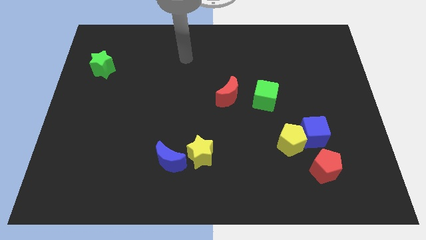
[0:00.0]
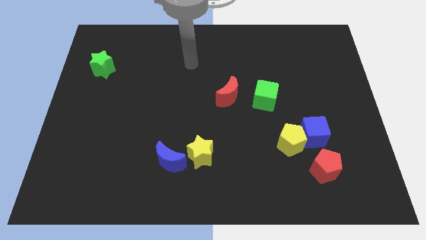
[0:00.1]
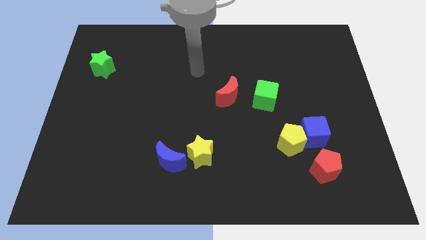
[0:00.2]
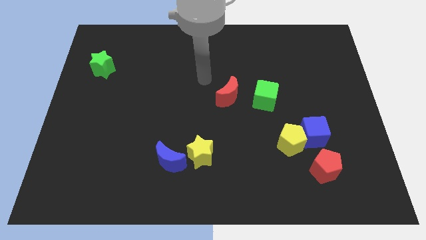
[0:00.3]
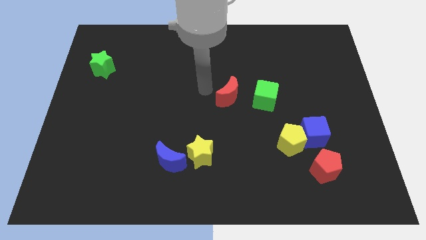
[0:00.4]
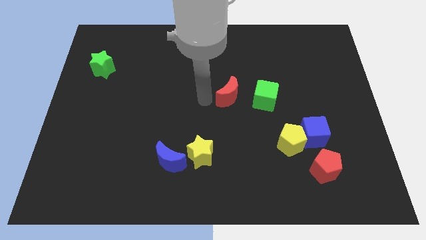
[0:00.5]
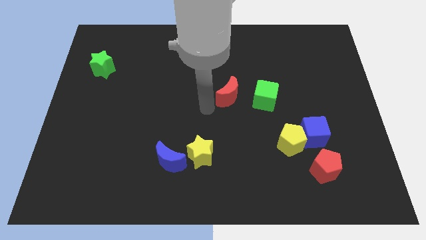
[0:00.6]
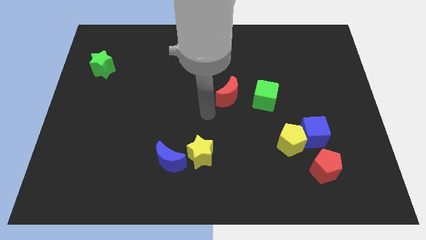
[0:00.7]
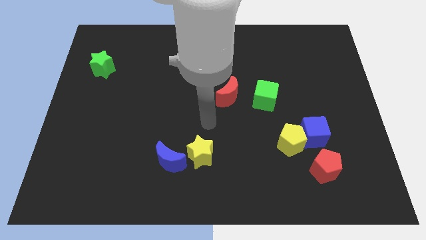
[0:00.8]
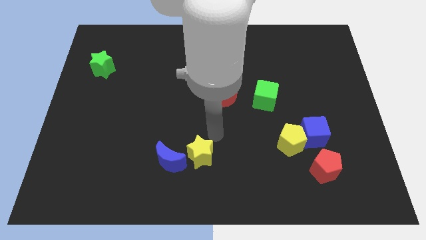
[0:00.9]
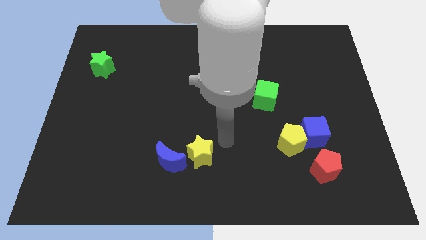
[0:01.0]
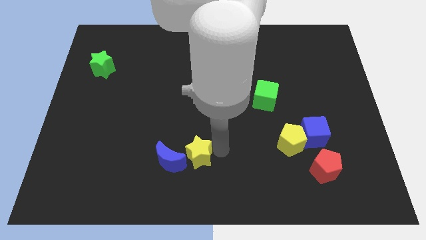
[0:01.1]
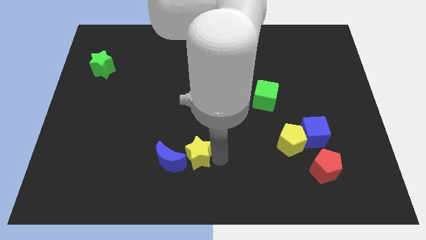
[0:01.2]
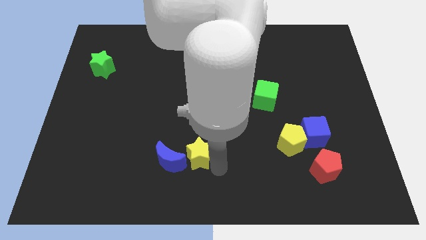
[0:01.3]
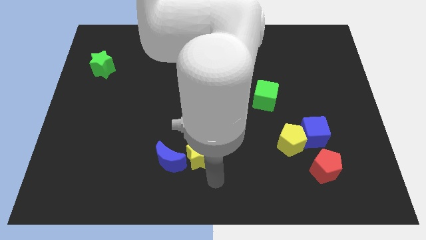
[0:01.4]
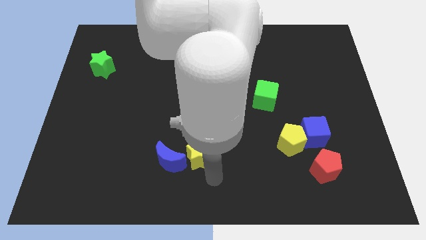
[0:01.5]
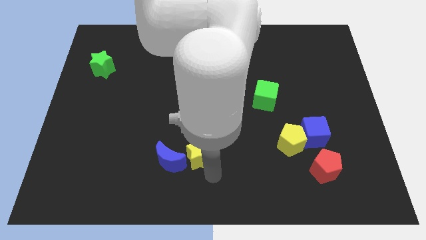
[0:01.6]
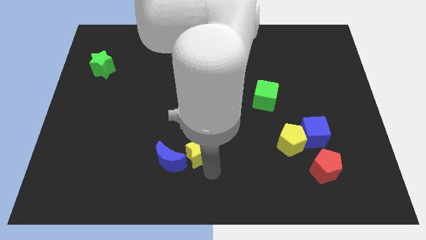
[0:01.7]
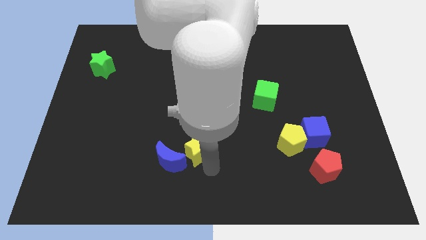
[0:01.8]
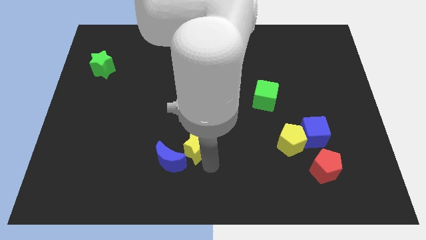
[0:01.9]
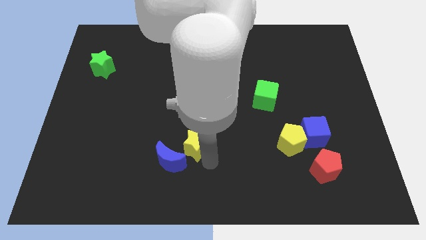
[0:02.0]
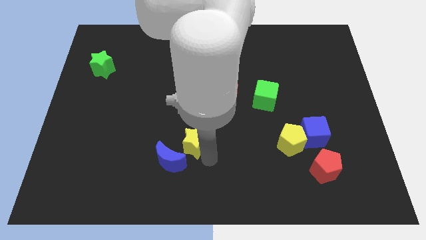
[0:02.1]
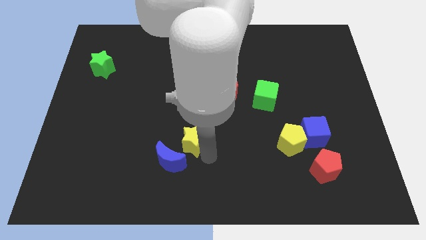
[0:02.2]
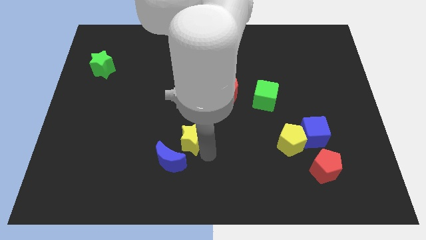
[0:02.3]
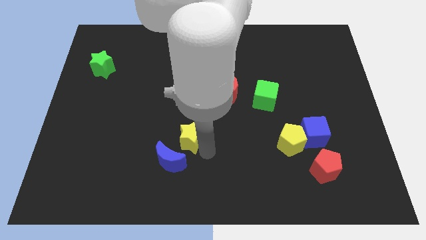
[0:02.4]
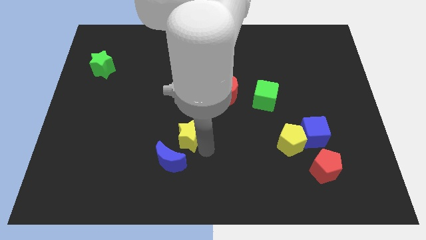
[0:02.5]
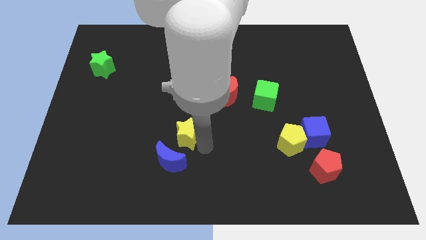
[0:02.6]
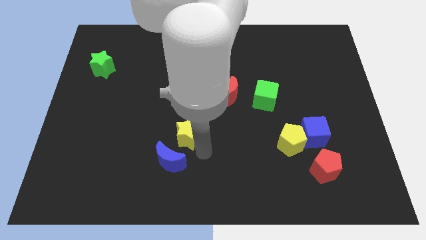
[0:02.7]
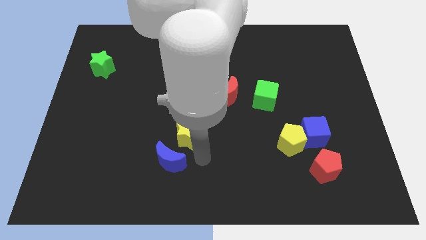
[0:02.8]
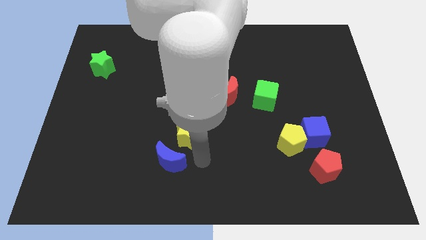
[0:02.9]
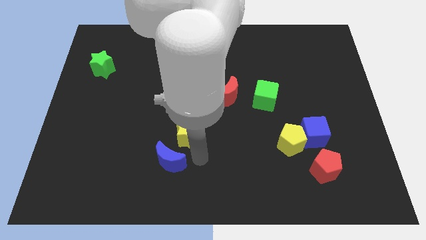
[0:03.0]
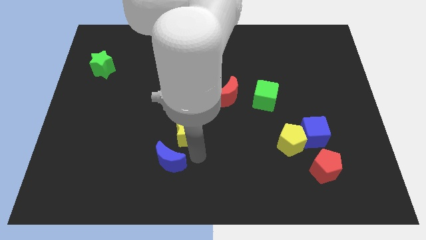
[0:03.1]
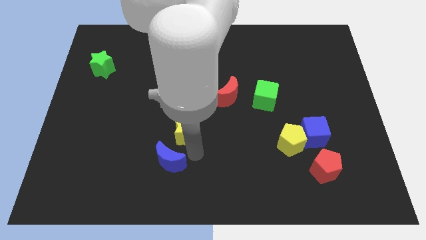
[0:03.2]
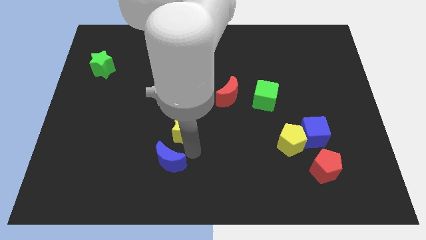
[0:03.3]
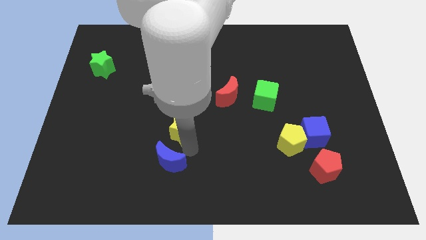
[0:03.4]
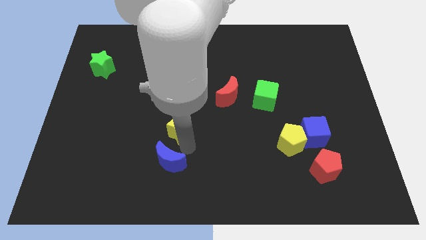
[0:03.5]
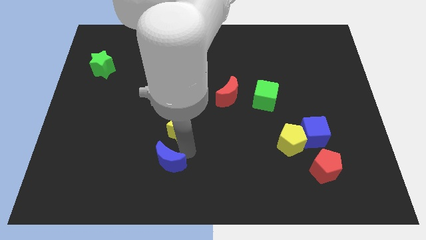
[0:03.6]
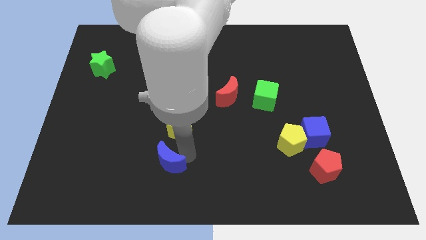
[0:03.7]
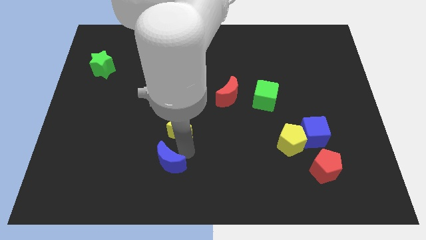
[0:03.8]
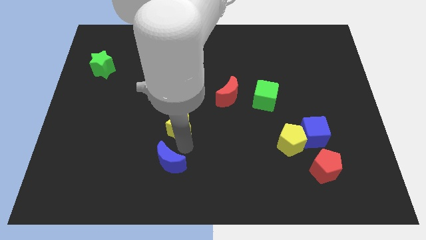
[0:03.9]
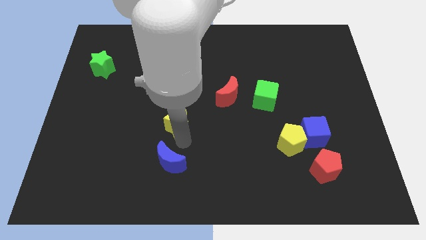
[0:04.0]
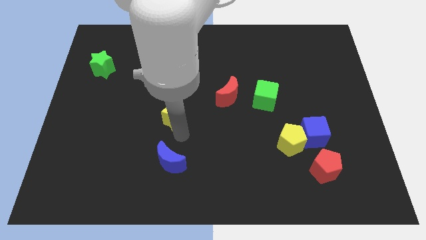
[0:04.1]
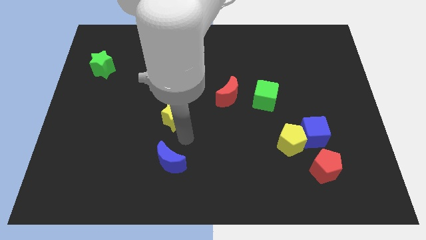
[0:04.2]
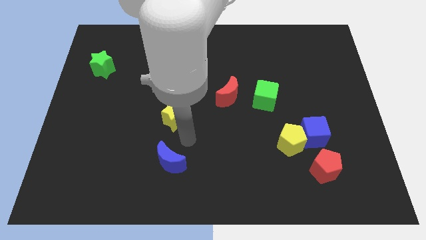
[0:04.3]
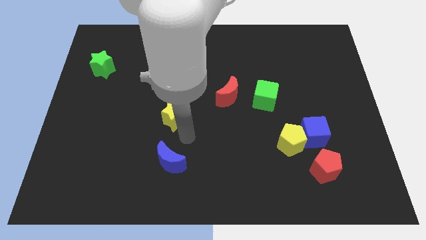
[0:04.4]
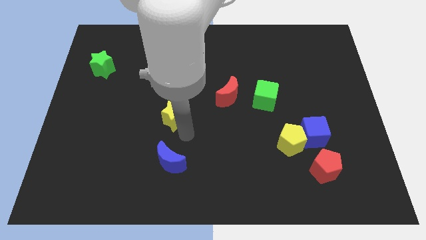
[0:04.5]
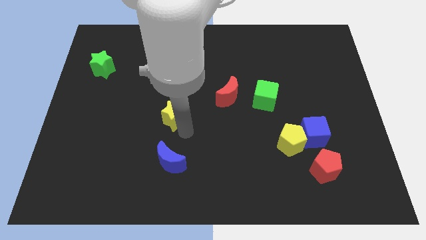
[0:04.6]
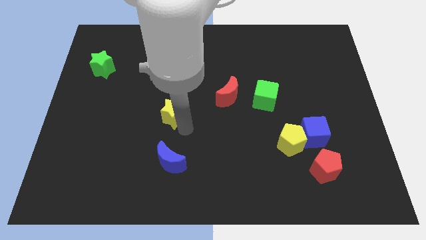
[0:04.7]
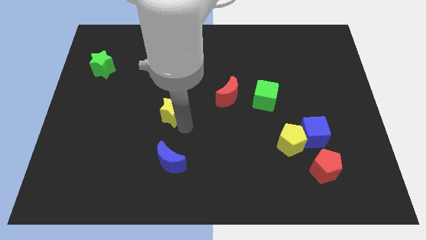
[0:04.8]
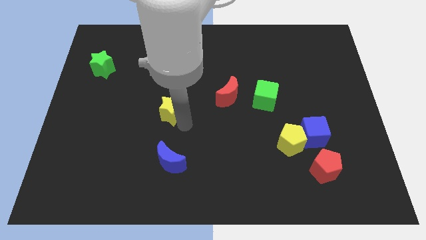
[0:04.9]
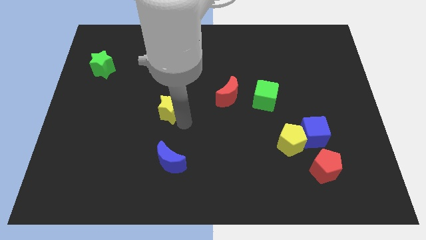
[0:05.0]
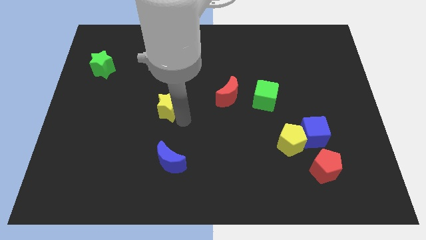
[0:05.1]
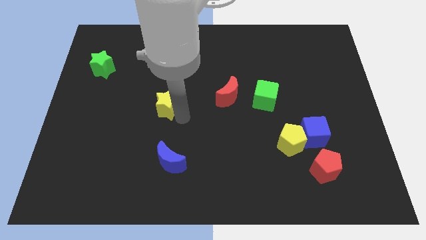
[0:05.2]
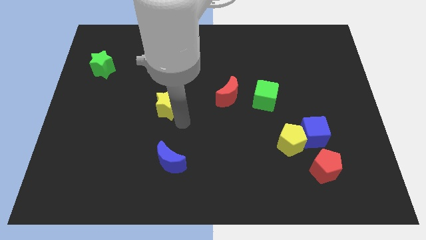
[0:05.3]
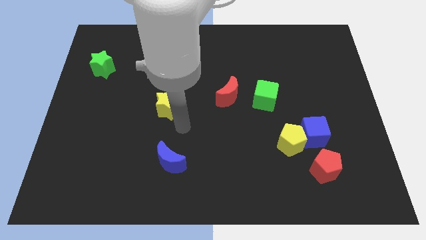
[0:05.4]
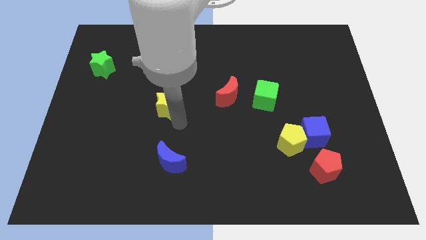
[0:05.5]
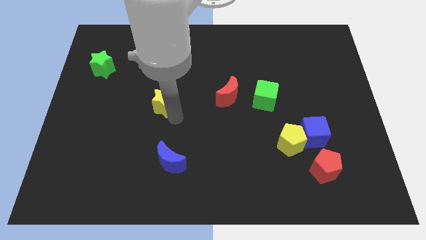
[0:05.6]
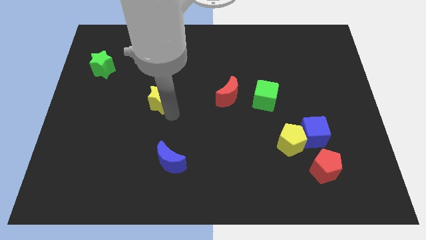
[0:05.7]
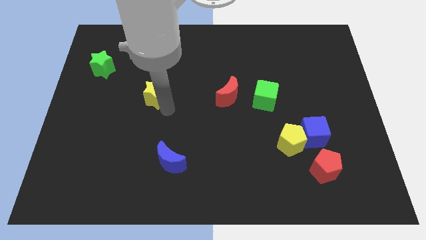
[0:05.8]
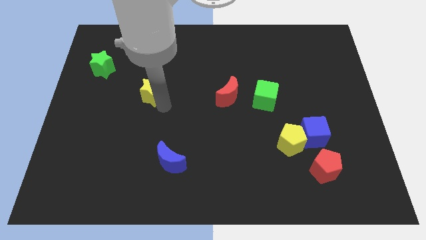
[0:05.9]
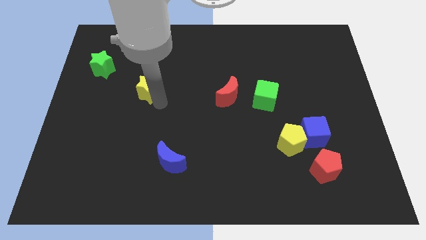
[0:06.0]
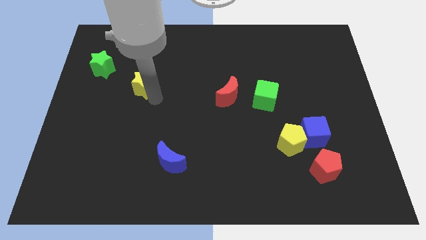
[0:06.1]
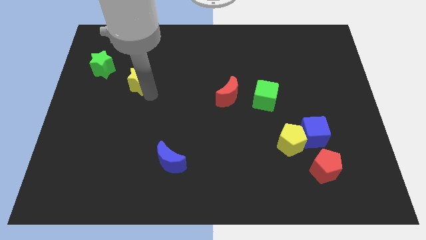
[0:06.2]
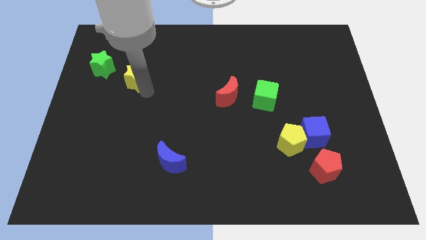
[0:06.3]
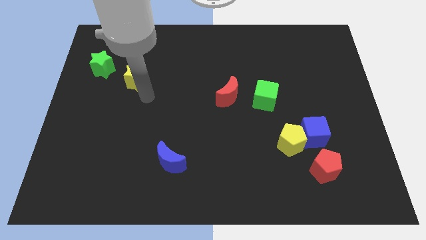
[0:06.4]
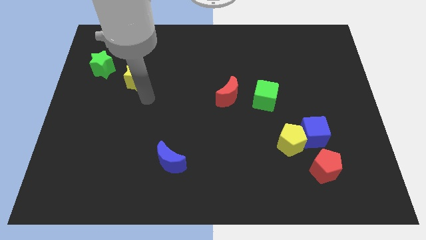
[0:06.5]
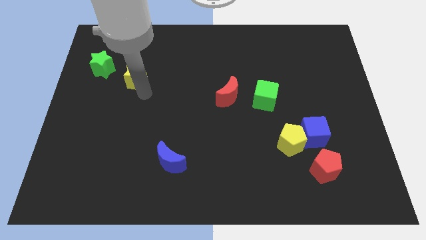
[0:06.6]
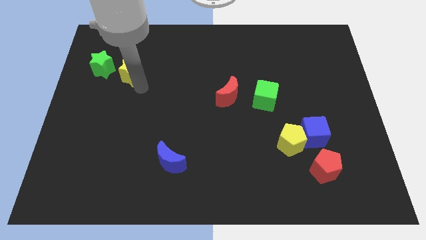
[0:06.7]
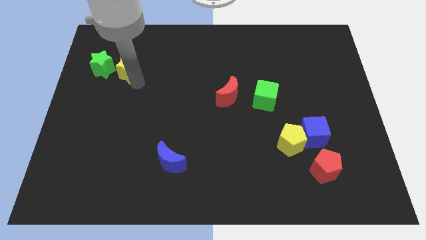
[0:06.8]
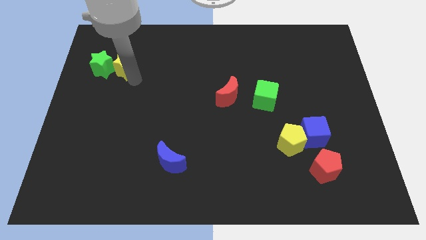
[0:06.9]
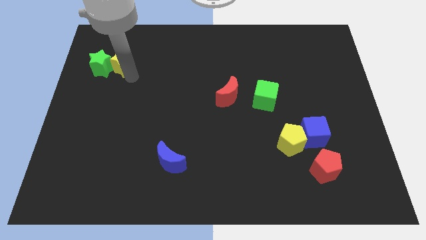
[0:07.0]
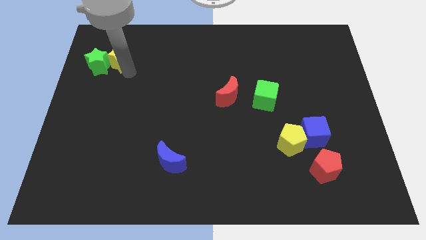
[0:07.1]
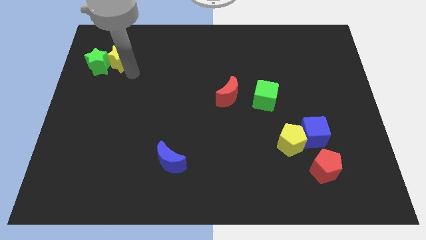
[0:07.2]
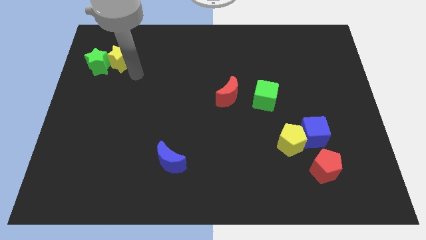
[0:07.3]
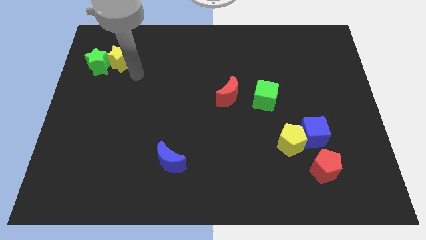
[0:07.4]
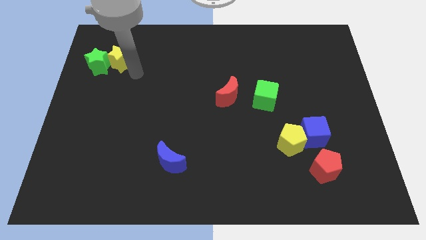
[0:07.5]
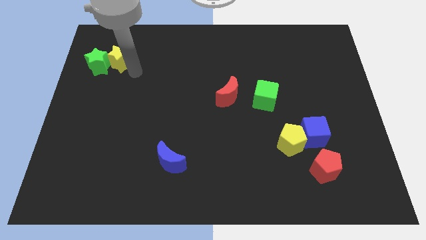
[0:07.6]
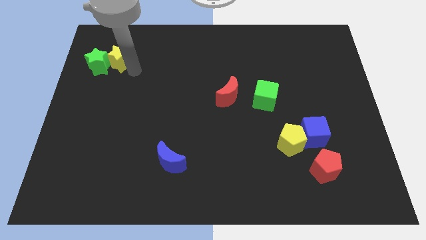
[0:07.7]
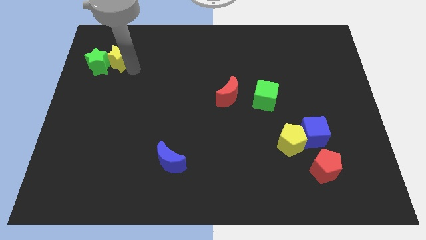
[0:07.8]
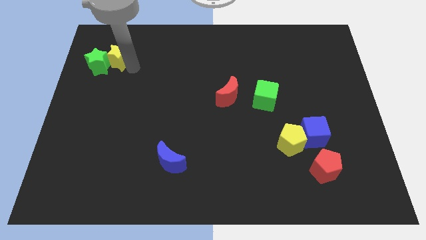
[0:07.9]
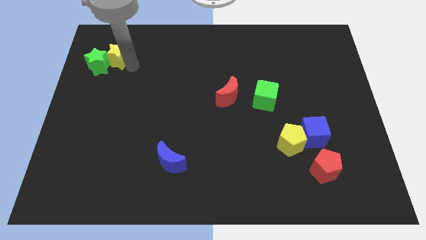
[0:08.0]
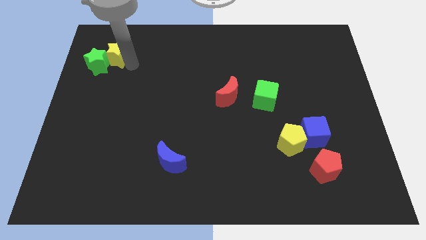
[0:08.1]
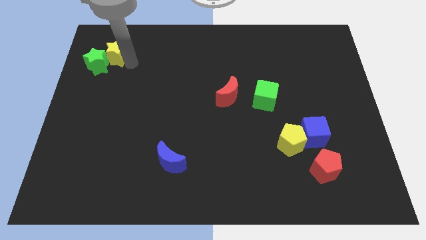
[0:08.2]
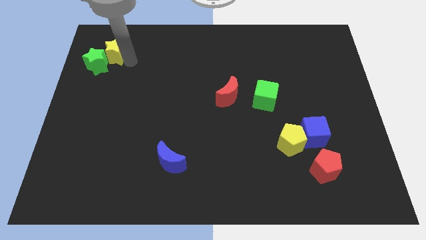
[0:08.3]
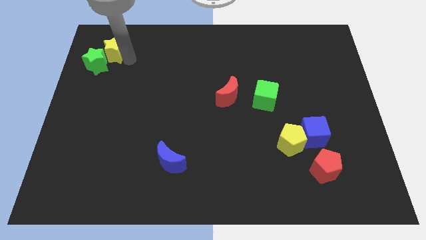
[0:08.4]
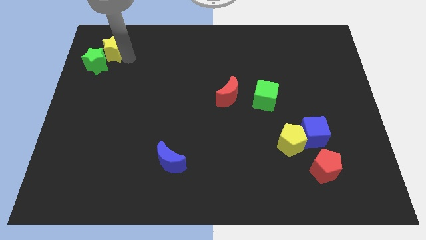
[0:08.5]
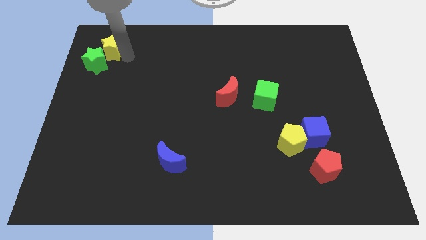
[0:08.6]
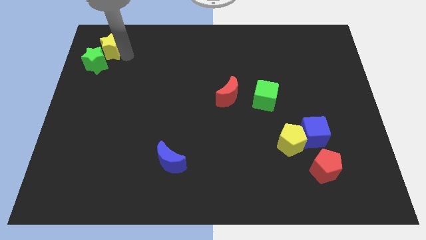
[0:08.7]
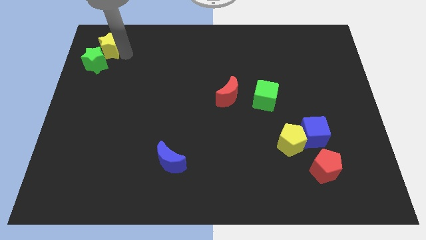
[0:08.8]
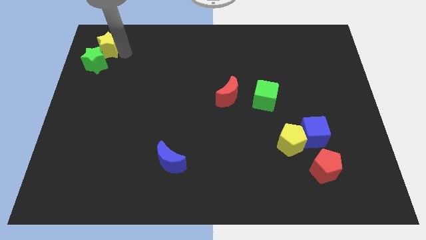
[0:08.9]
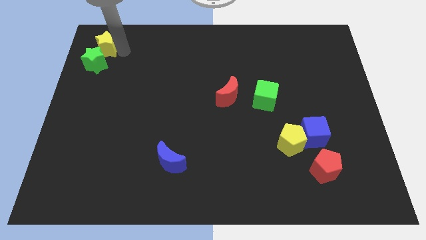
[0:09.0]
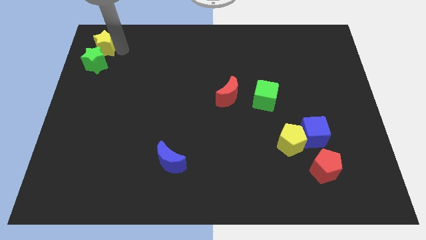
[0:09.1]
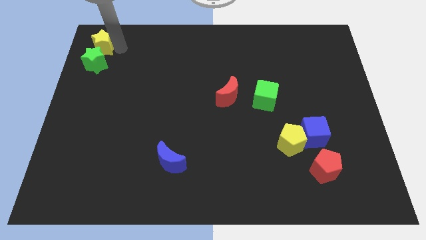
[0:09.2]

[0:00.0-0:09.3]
push the yellow star to the top left
